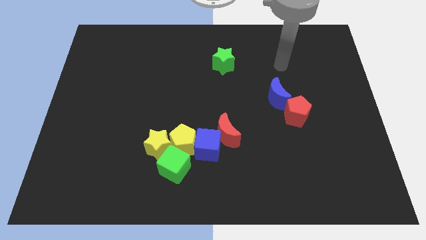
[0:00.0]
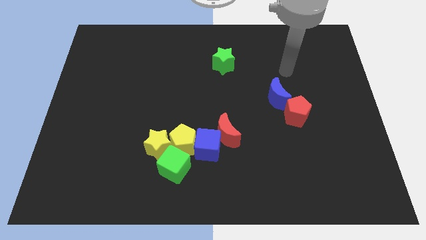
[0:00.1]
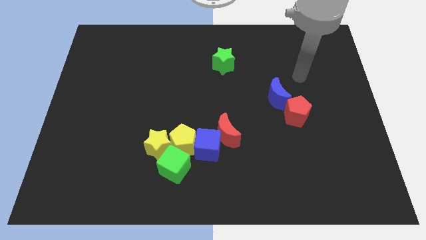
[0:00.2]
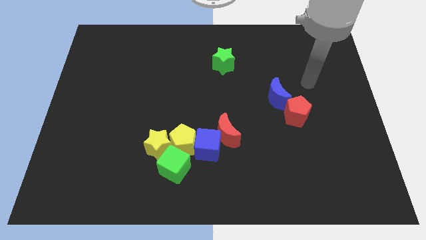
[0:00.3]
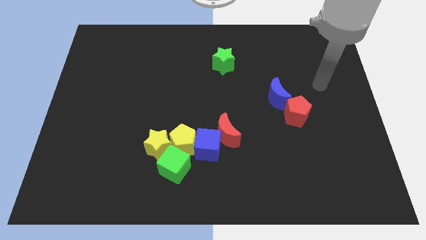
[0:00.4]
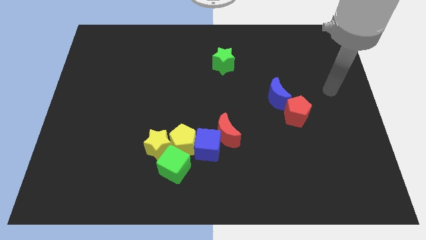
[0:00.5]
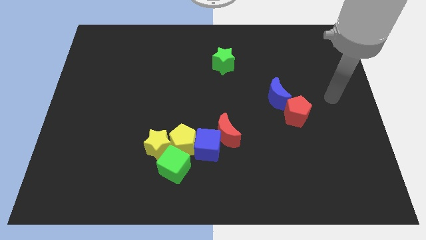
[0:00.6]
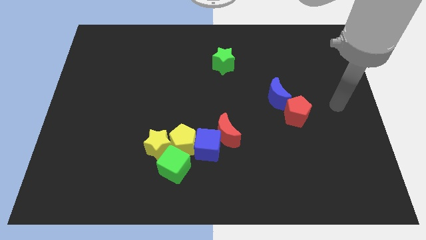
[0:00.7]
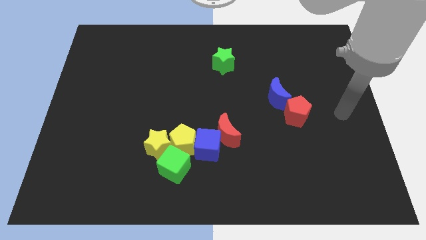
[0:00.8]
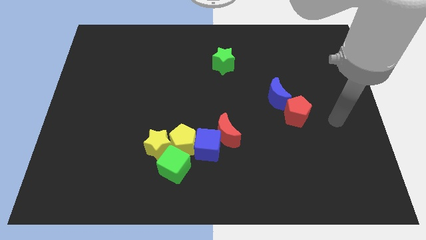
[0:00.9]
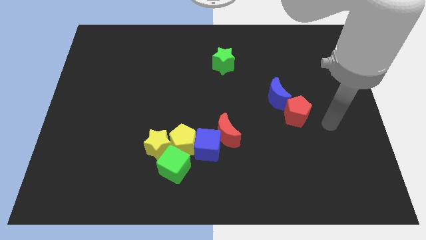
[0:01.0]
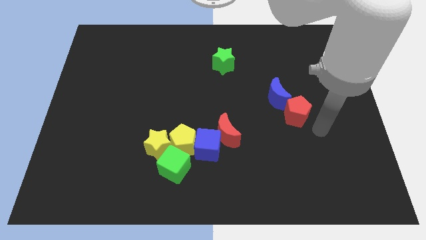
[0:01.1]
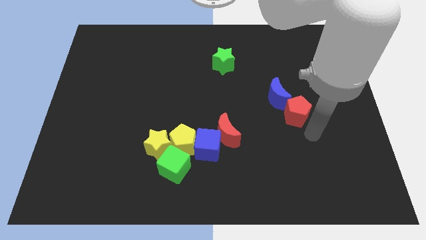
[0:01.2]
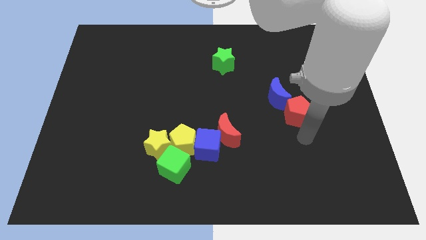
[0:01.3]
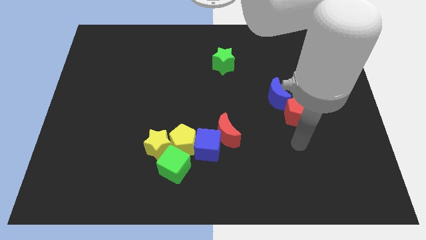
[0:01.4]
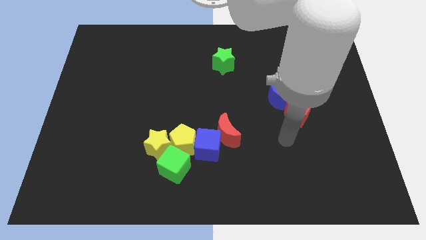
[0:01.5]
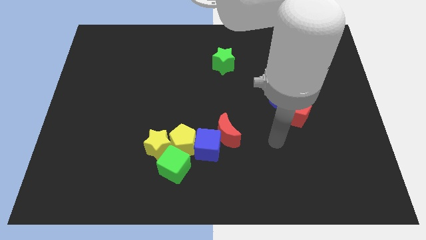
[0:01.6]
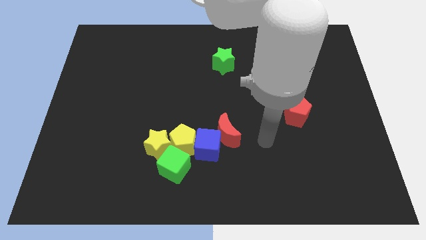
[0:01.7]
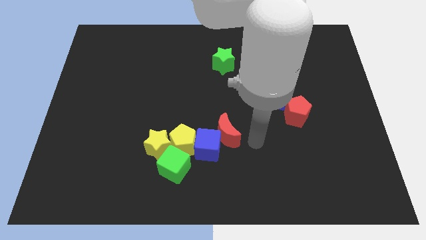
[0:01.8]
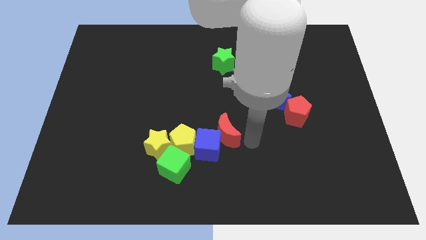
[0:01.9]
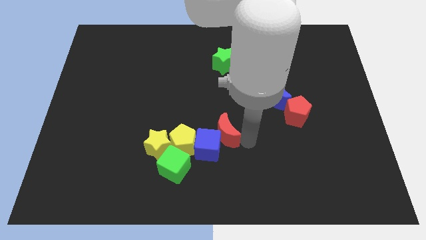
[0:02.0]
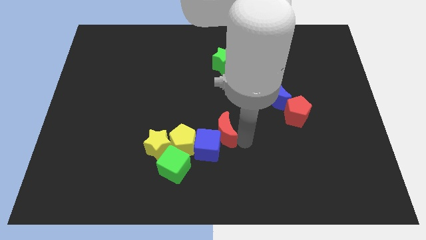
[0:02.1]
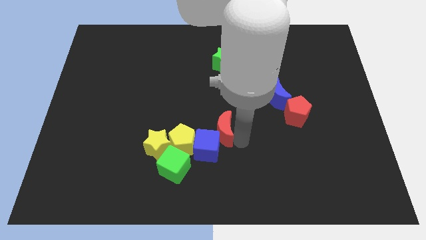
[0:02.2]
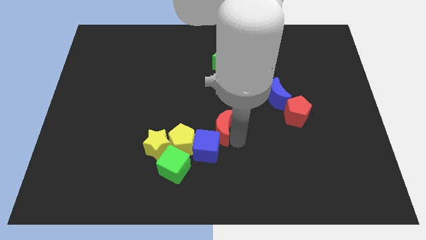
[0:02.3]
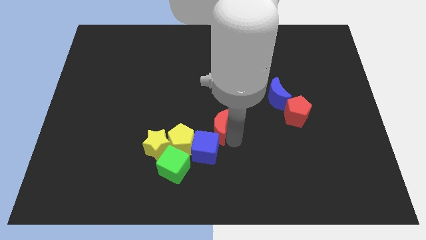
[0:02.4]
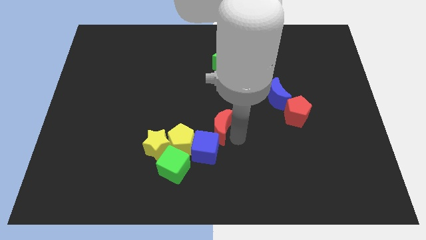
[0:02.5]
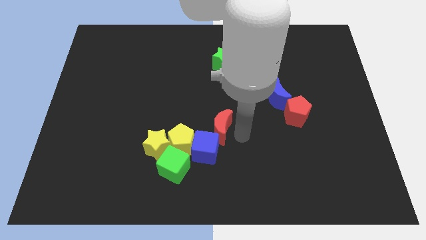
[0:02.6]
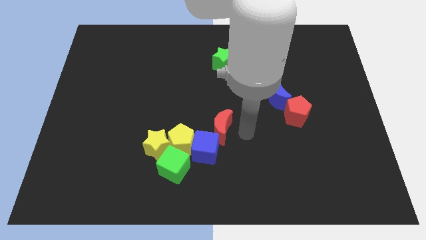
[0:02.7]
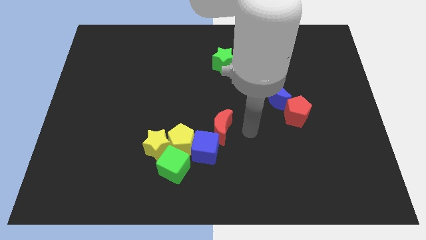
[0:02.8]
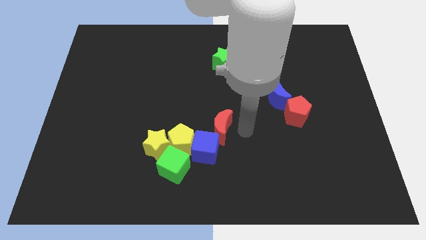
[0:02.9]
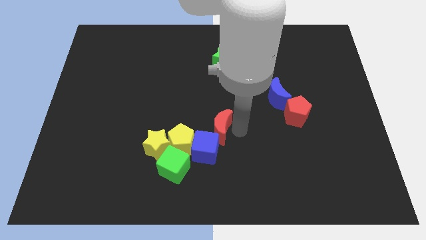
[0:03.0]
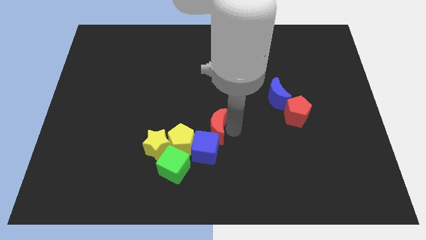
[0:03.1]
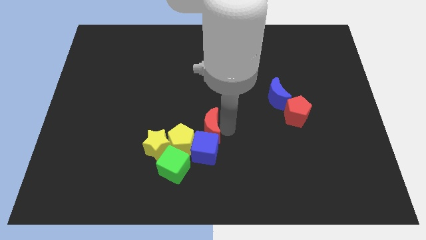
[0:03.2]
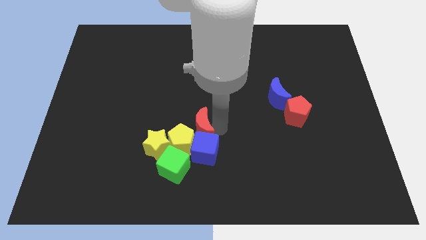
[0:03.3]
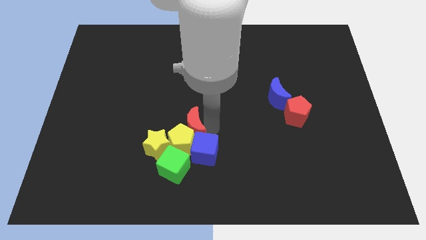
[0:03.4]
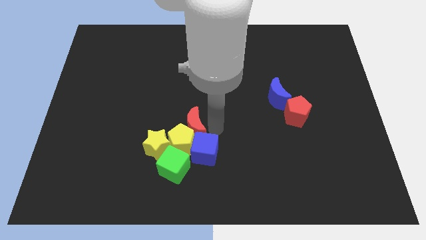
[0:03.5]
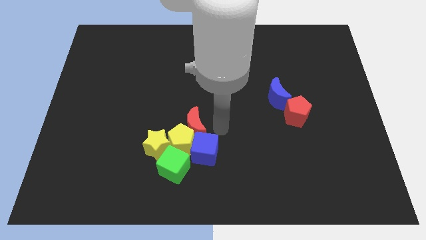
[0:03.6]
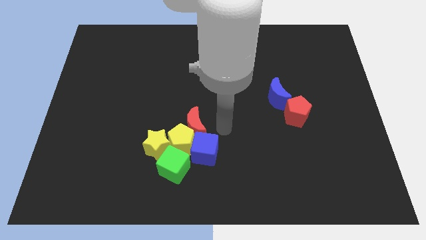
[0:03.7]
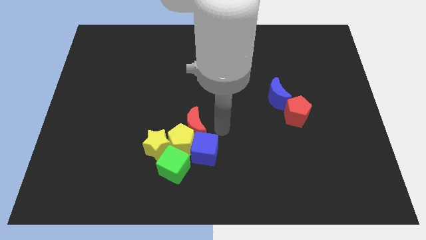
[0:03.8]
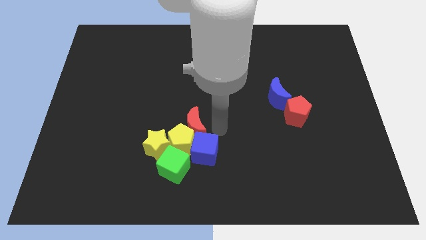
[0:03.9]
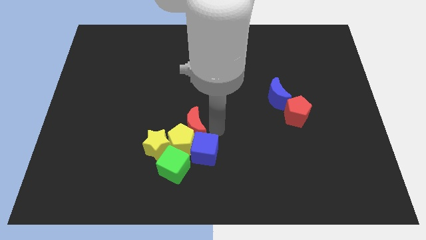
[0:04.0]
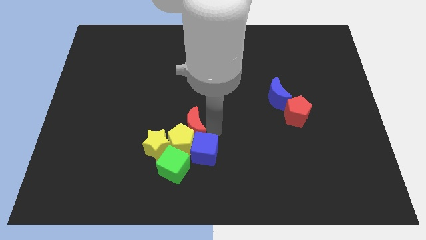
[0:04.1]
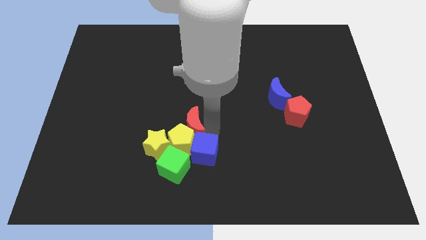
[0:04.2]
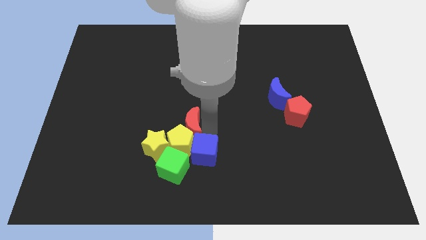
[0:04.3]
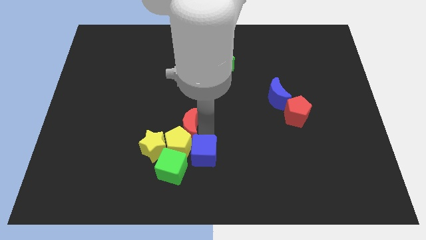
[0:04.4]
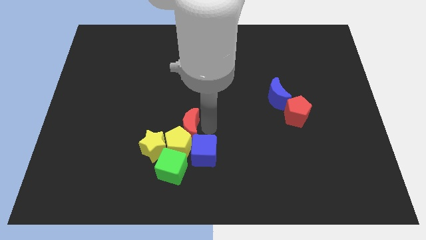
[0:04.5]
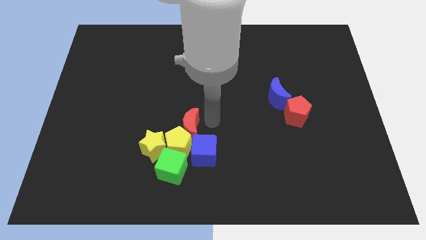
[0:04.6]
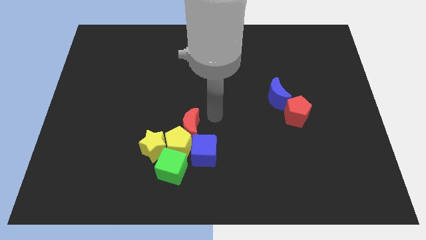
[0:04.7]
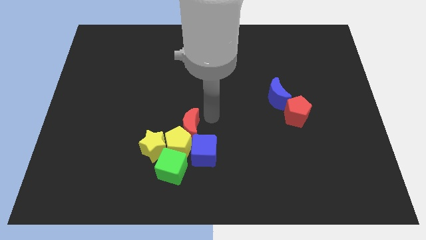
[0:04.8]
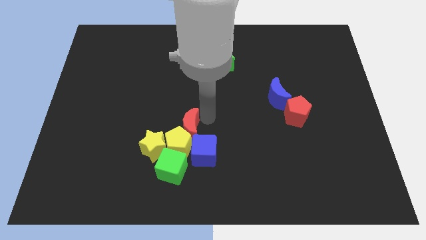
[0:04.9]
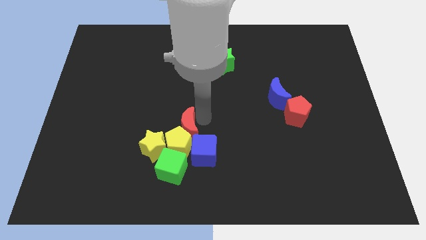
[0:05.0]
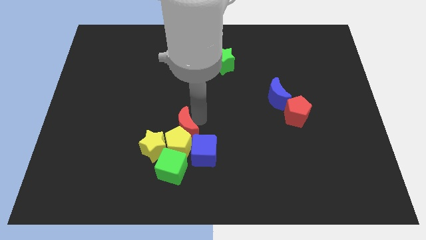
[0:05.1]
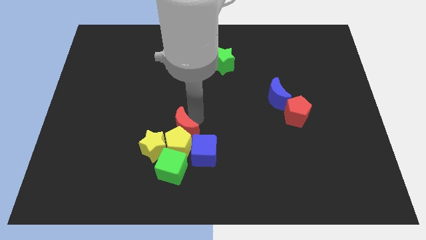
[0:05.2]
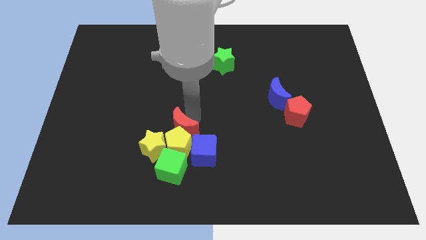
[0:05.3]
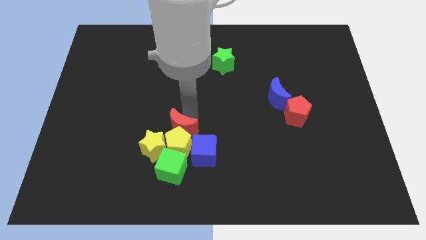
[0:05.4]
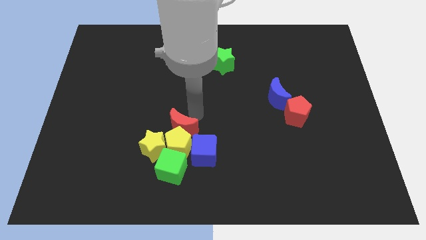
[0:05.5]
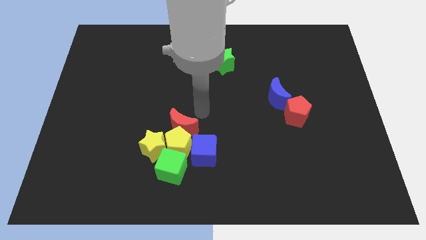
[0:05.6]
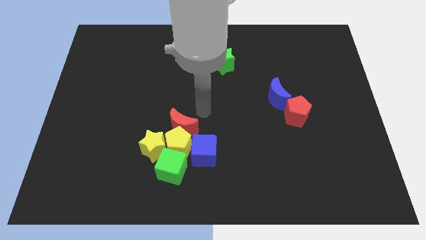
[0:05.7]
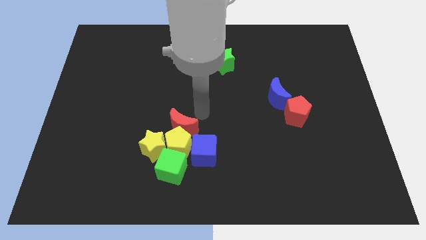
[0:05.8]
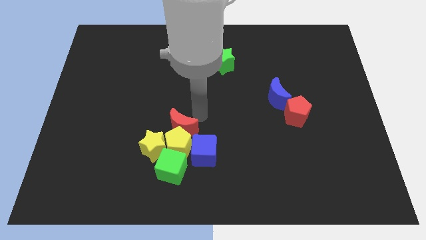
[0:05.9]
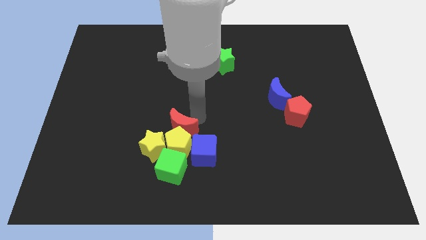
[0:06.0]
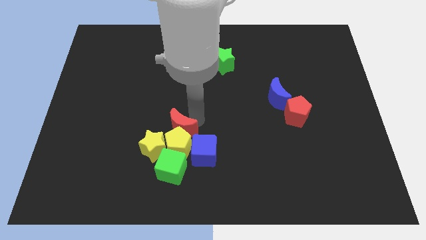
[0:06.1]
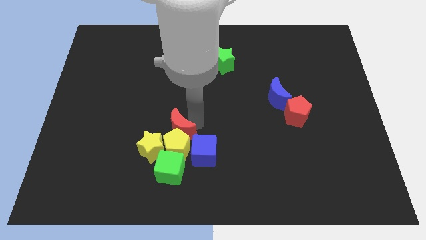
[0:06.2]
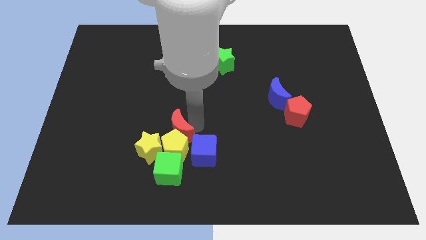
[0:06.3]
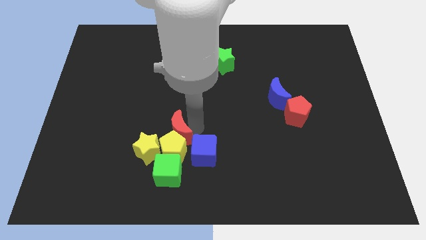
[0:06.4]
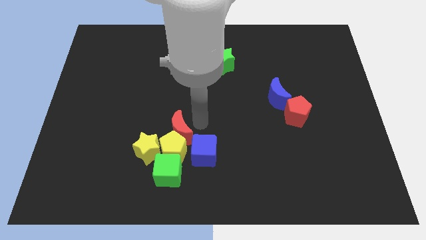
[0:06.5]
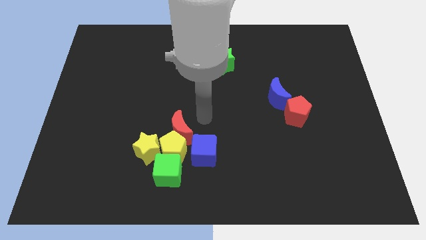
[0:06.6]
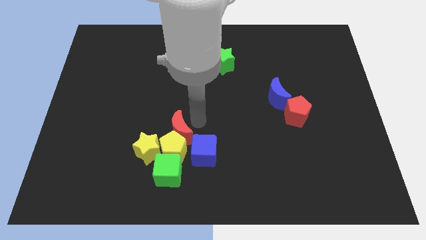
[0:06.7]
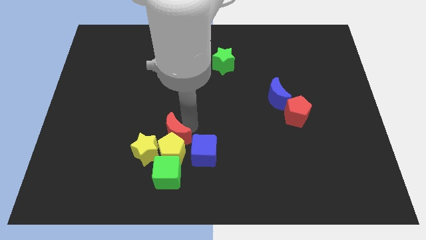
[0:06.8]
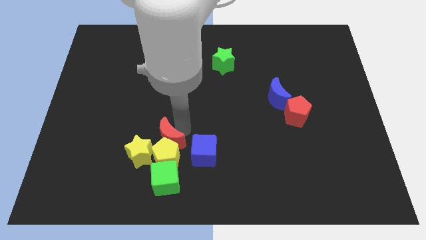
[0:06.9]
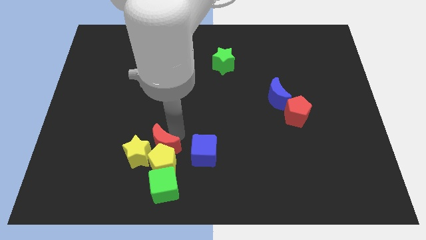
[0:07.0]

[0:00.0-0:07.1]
push the red moon towards the yellow star

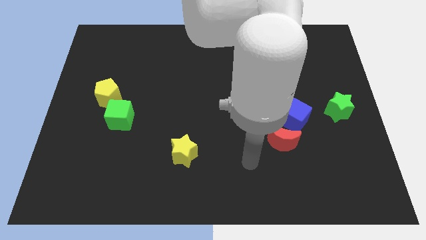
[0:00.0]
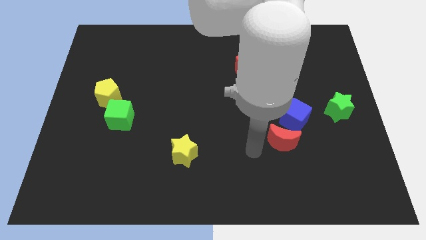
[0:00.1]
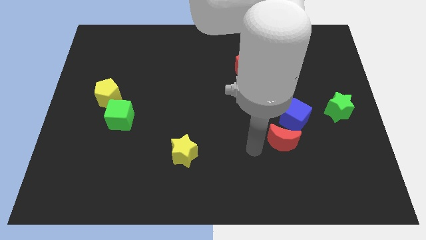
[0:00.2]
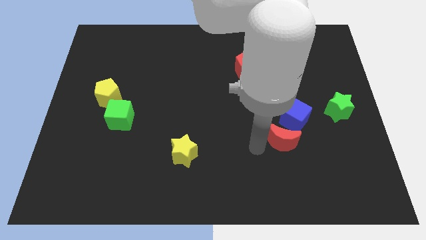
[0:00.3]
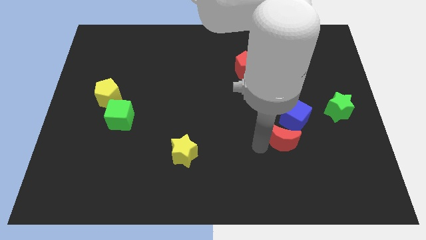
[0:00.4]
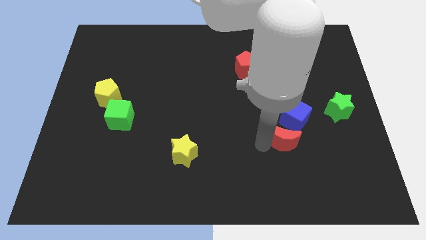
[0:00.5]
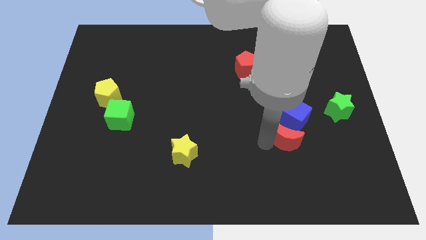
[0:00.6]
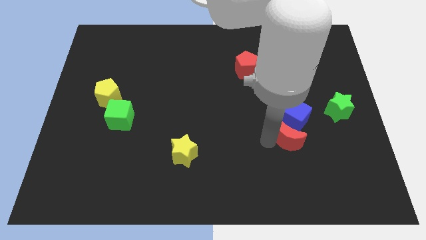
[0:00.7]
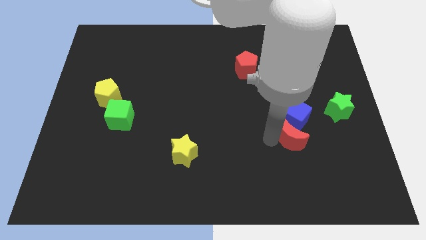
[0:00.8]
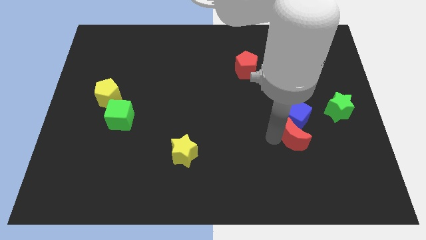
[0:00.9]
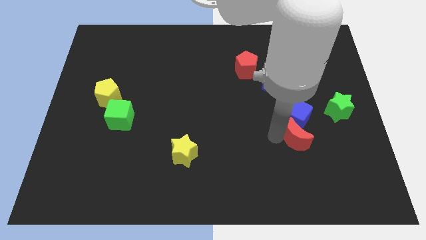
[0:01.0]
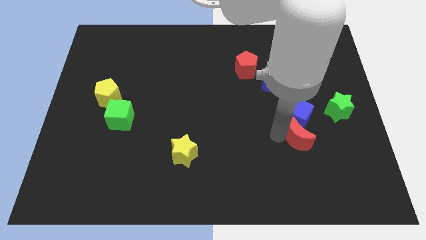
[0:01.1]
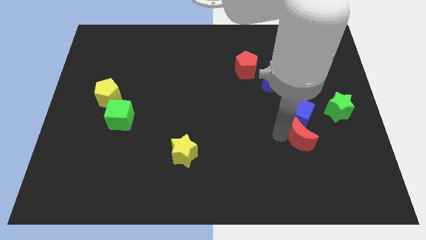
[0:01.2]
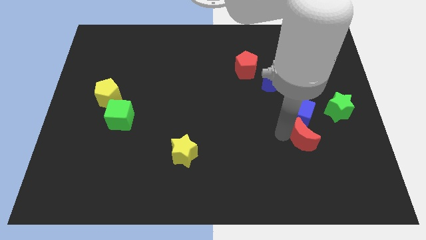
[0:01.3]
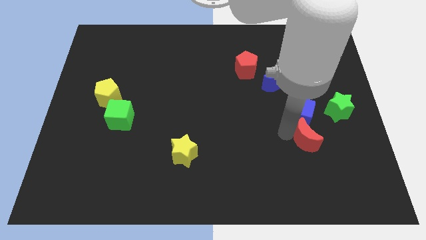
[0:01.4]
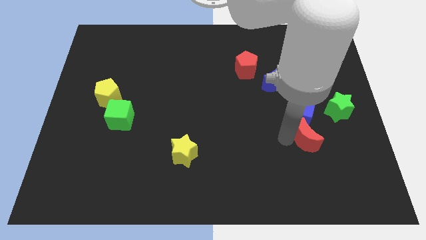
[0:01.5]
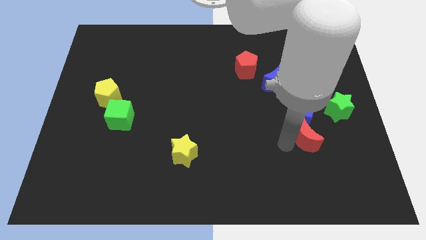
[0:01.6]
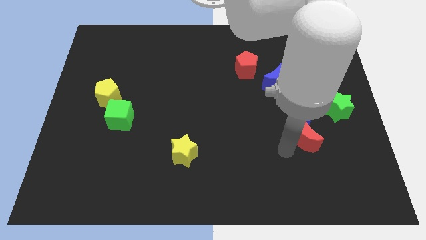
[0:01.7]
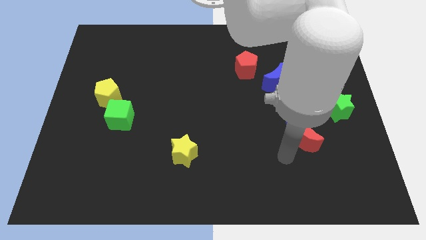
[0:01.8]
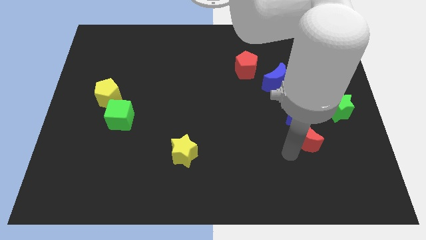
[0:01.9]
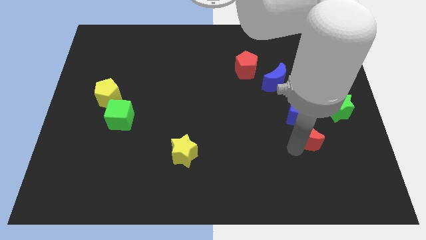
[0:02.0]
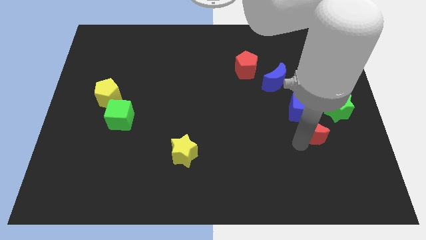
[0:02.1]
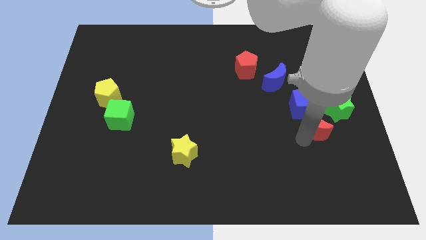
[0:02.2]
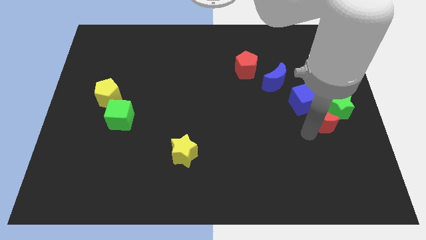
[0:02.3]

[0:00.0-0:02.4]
put the red moon close to the green star
